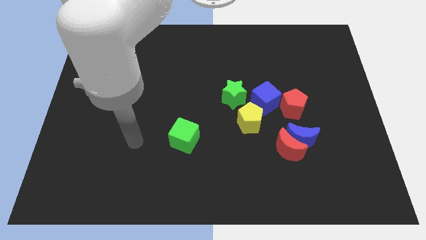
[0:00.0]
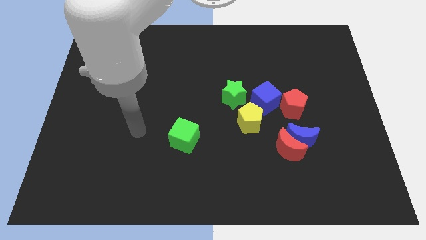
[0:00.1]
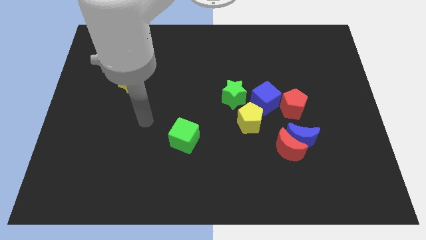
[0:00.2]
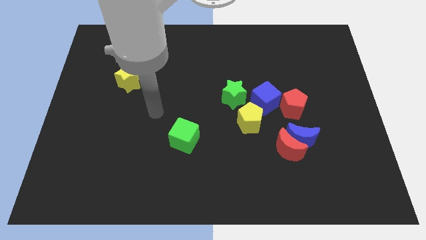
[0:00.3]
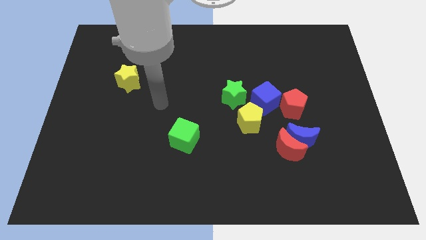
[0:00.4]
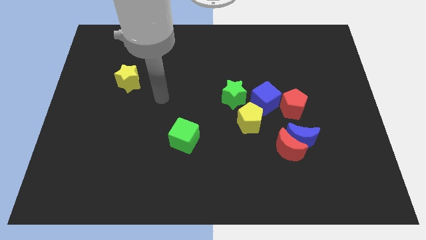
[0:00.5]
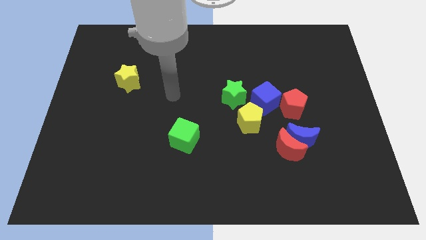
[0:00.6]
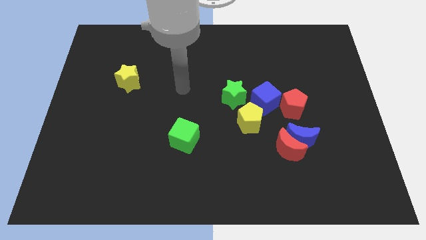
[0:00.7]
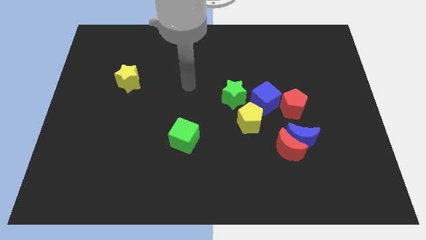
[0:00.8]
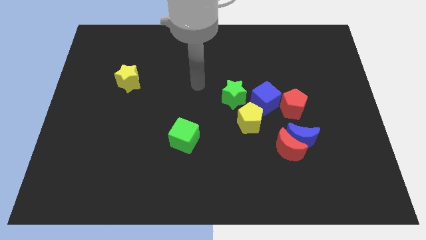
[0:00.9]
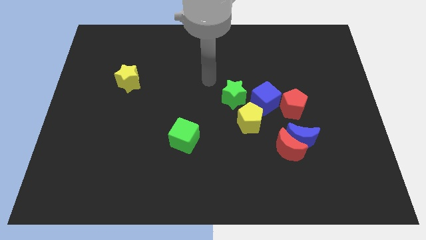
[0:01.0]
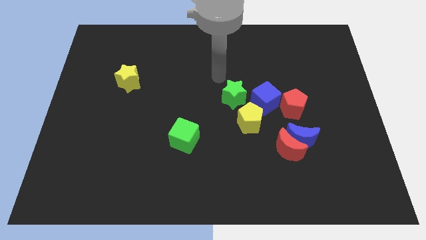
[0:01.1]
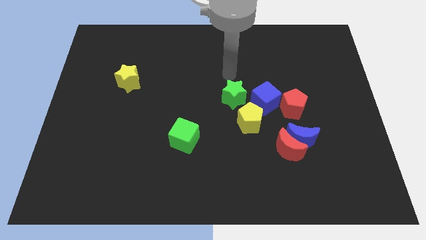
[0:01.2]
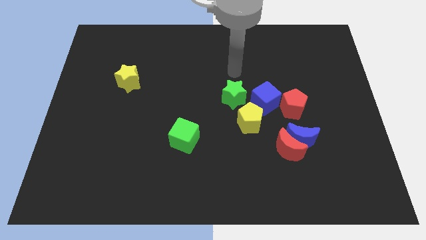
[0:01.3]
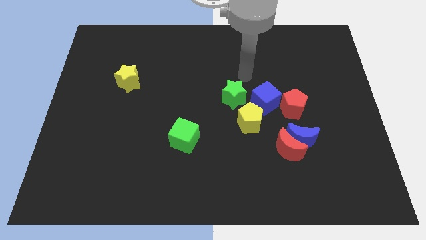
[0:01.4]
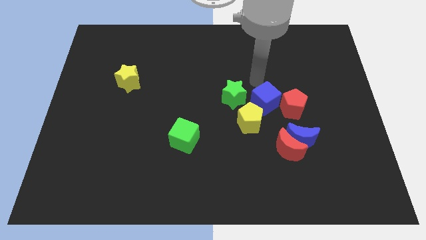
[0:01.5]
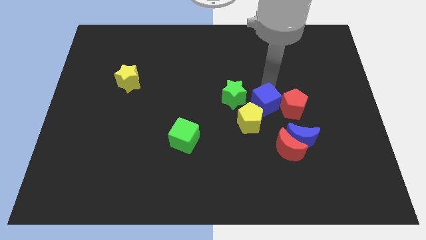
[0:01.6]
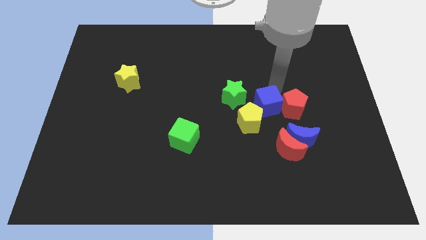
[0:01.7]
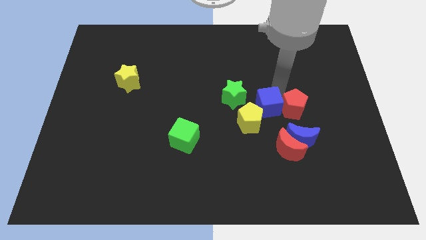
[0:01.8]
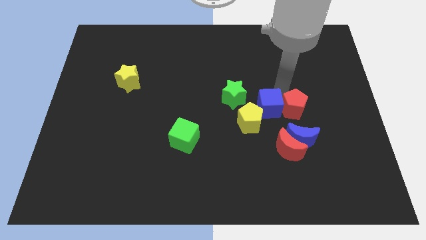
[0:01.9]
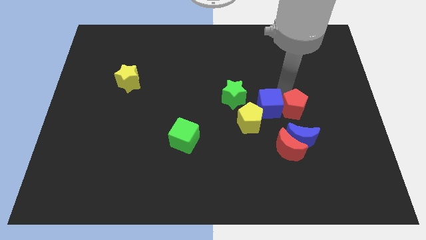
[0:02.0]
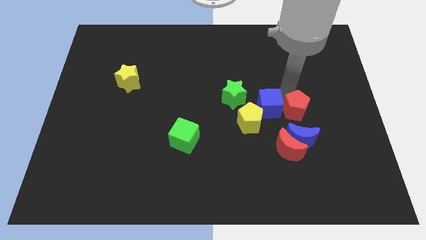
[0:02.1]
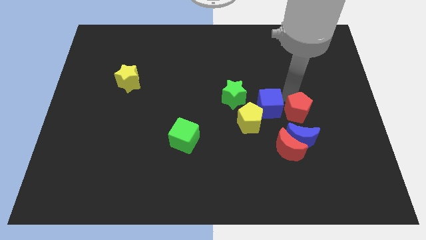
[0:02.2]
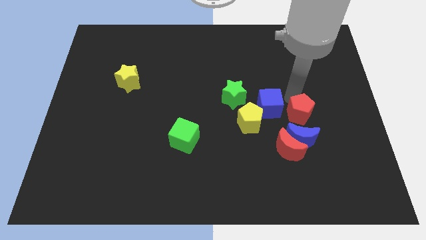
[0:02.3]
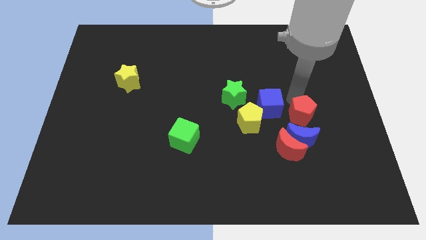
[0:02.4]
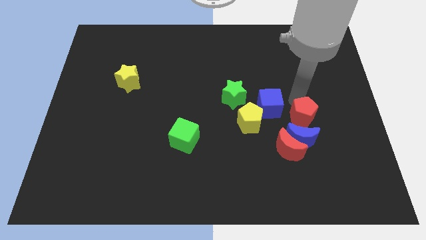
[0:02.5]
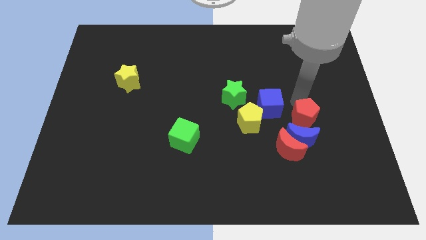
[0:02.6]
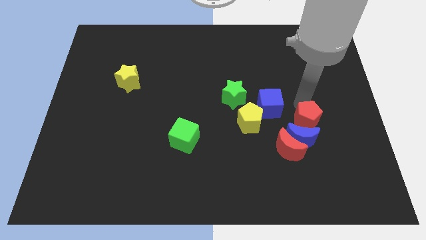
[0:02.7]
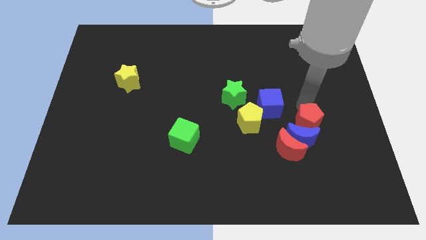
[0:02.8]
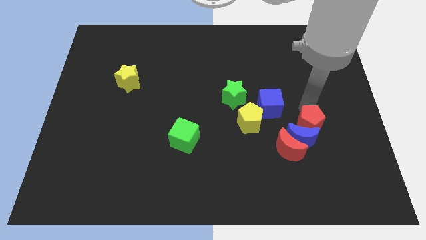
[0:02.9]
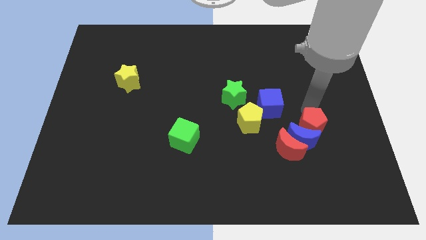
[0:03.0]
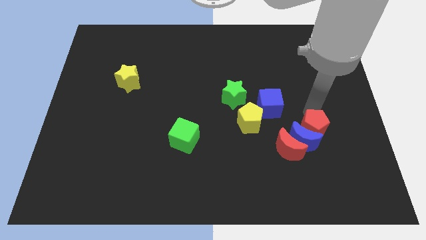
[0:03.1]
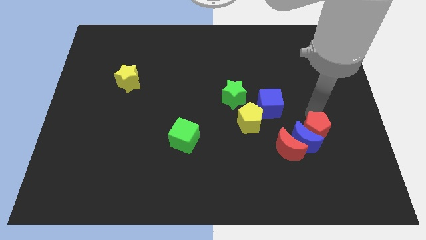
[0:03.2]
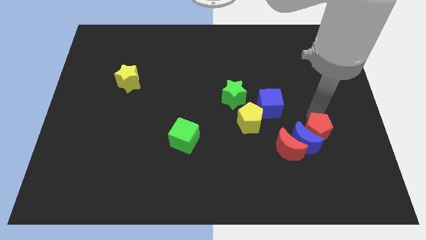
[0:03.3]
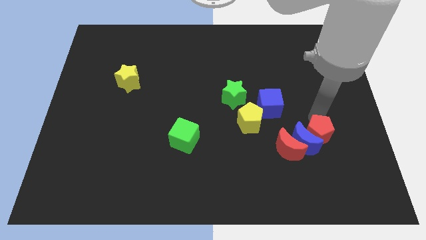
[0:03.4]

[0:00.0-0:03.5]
slightly push the red pentagon downwards

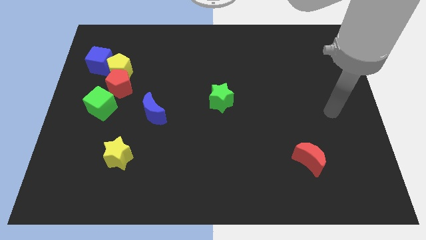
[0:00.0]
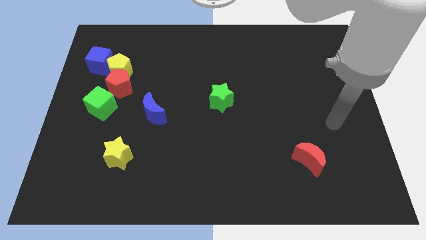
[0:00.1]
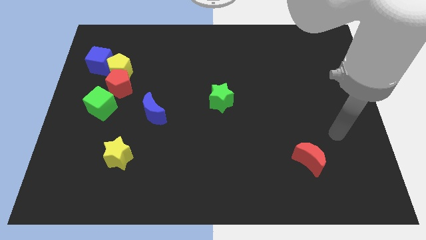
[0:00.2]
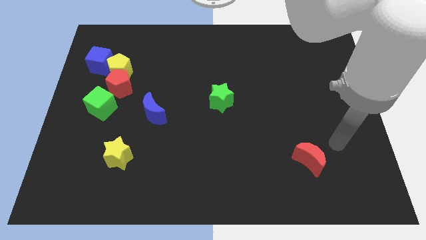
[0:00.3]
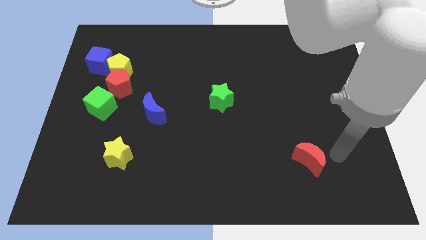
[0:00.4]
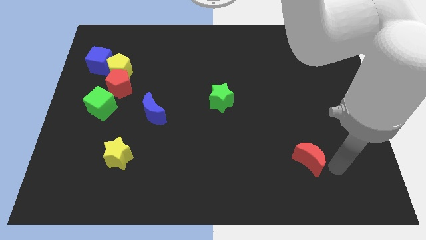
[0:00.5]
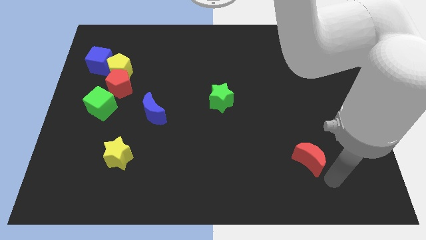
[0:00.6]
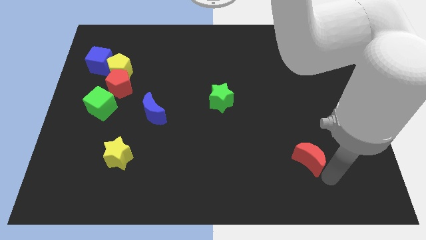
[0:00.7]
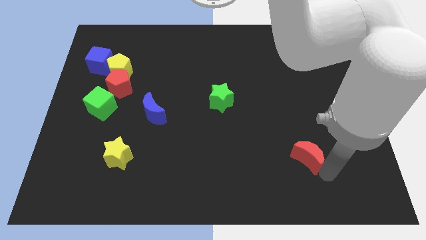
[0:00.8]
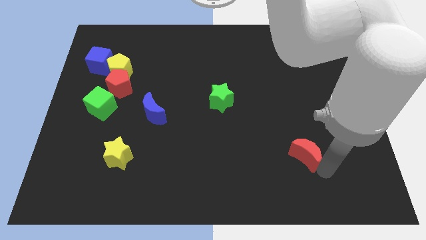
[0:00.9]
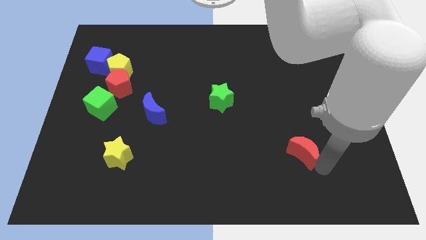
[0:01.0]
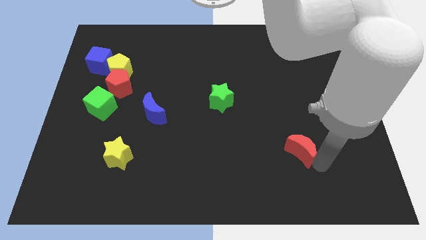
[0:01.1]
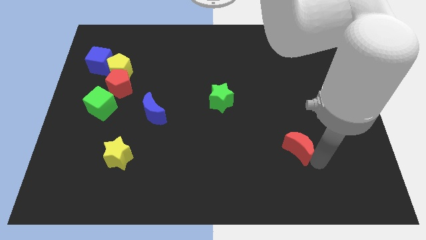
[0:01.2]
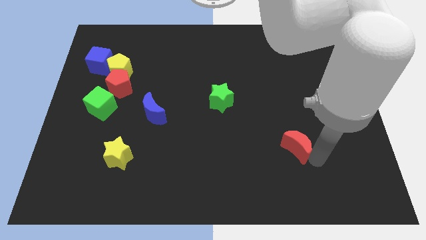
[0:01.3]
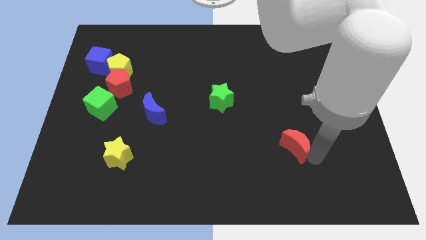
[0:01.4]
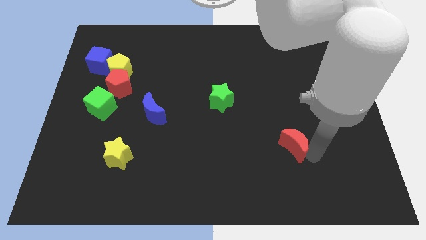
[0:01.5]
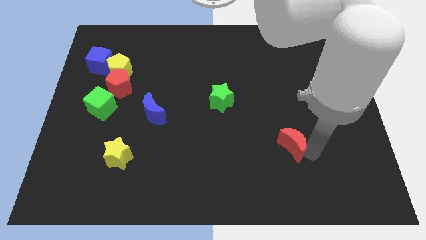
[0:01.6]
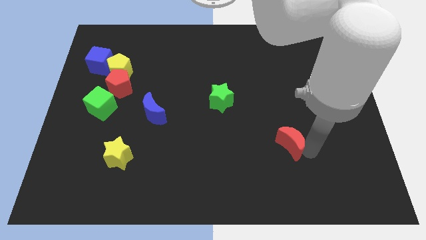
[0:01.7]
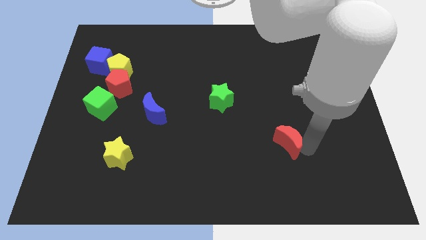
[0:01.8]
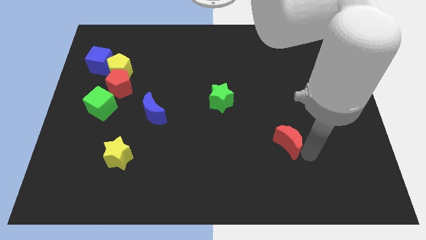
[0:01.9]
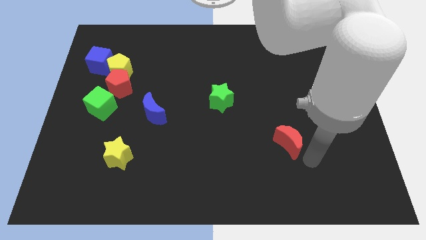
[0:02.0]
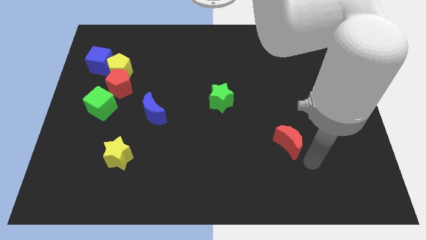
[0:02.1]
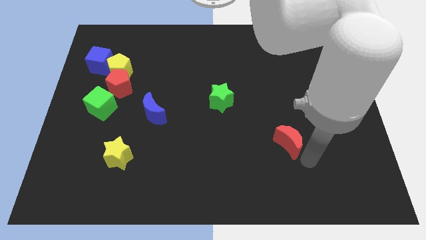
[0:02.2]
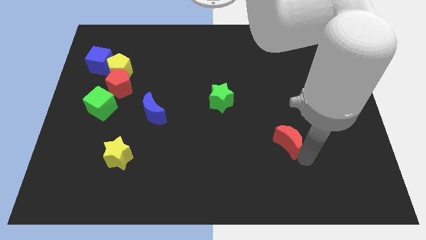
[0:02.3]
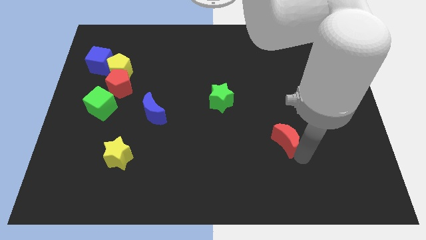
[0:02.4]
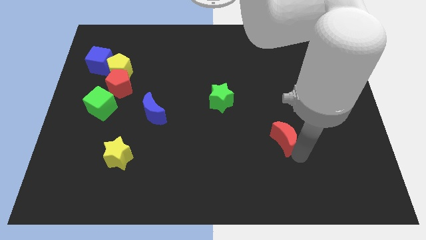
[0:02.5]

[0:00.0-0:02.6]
move the red moon upwards and to the left diagonally a little

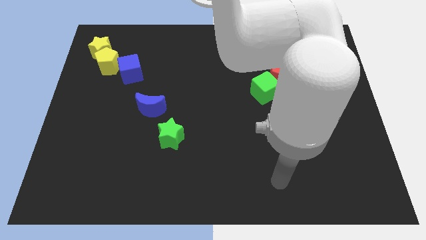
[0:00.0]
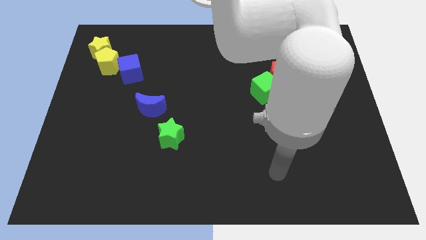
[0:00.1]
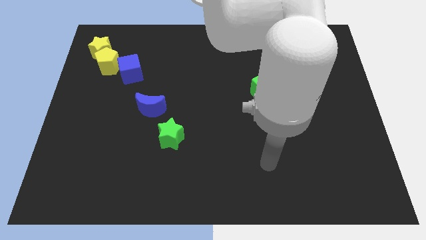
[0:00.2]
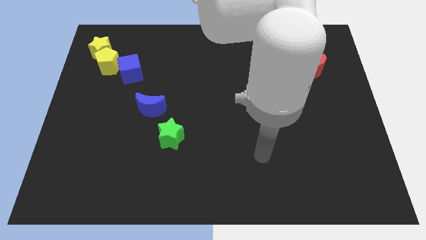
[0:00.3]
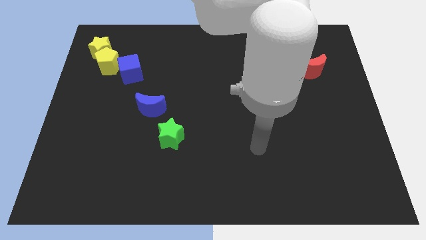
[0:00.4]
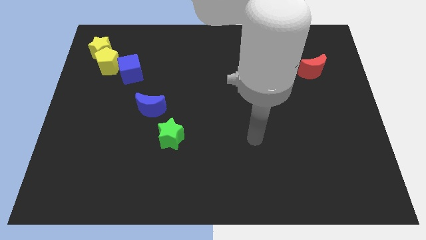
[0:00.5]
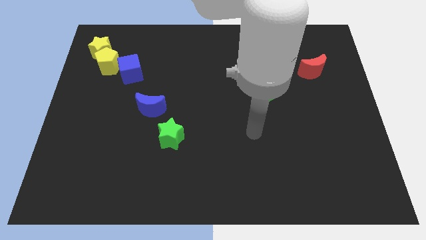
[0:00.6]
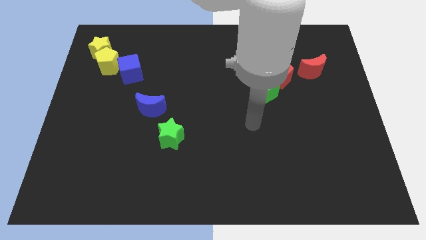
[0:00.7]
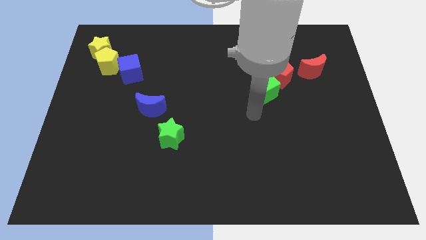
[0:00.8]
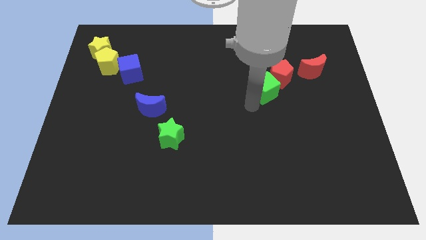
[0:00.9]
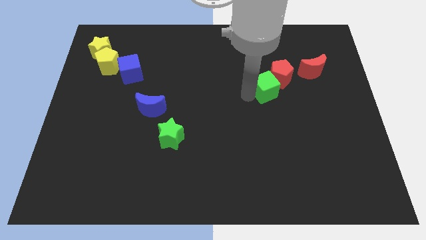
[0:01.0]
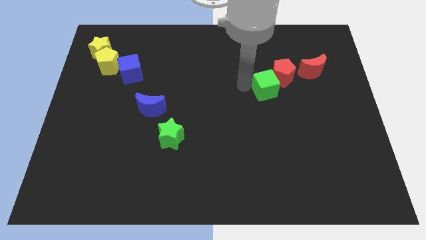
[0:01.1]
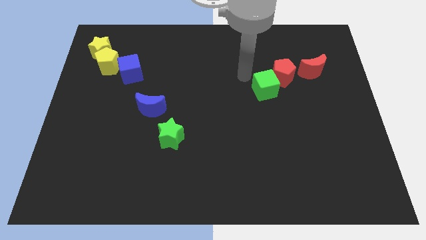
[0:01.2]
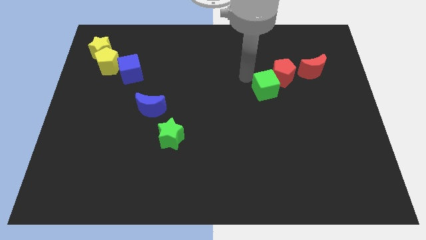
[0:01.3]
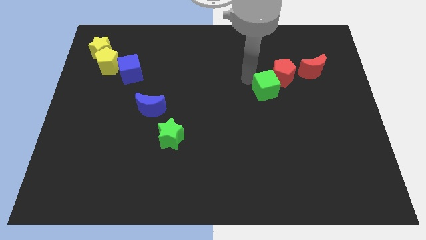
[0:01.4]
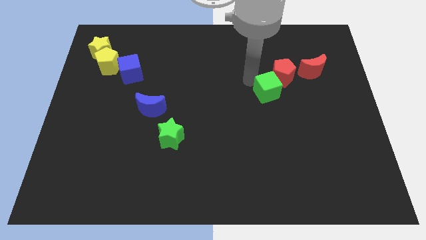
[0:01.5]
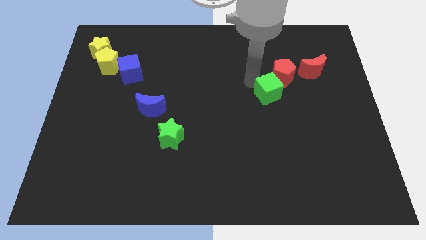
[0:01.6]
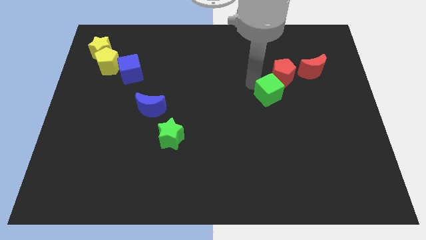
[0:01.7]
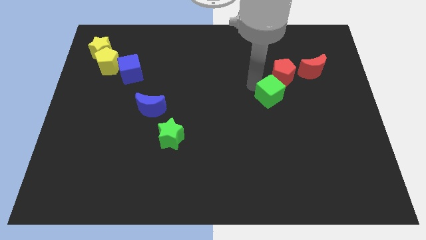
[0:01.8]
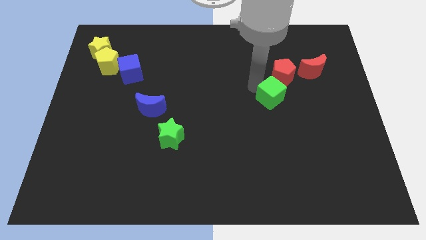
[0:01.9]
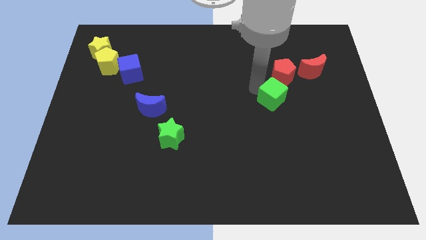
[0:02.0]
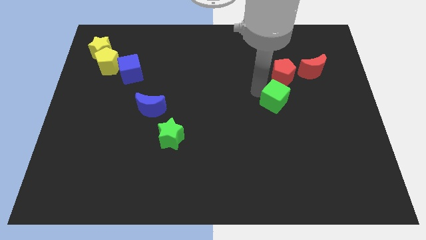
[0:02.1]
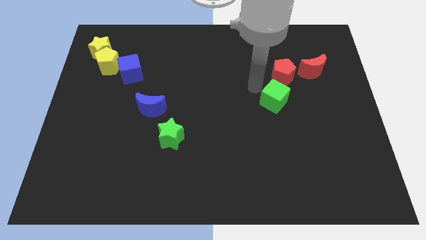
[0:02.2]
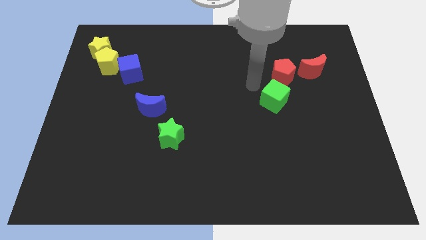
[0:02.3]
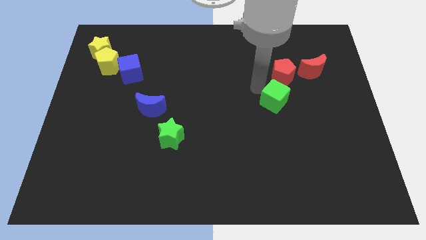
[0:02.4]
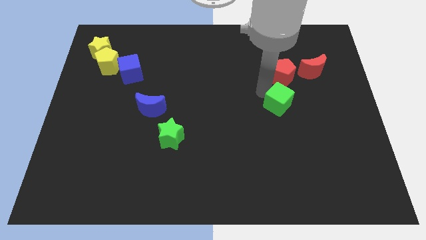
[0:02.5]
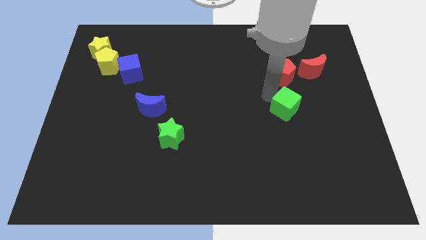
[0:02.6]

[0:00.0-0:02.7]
slightly slide the green cube diagonally downwards and right
